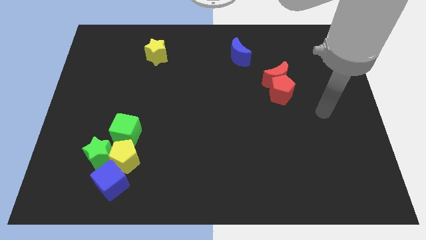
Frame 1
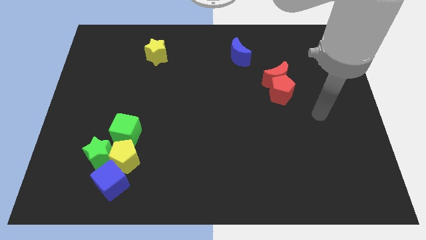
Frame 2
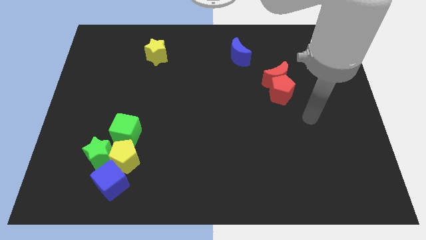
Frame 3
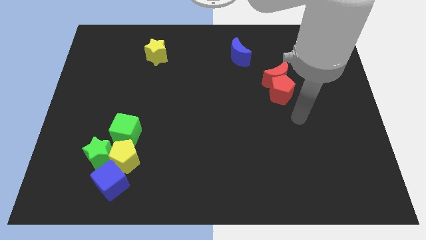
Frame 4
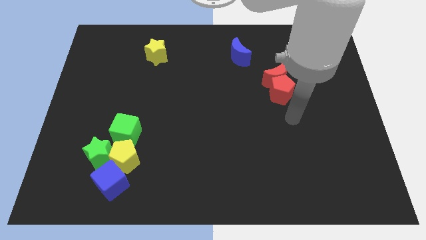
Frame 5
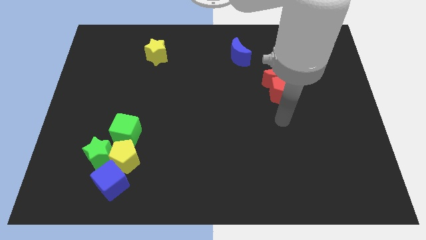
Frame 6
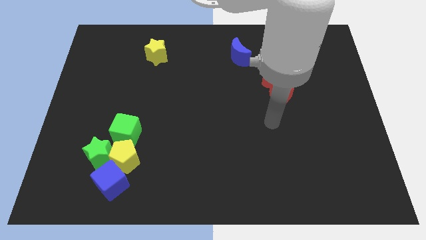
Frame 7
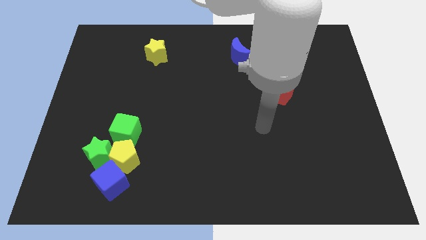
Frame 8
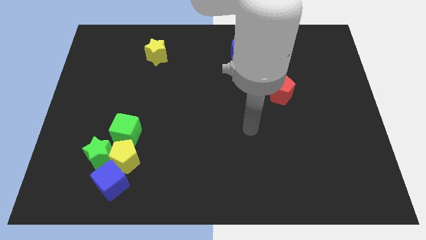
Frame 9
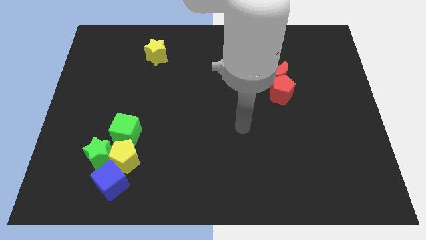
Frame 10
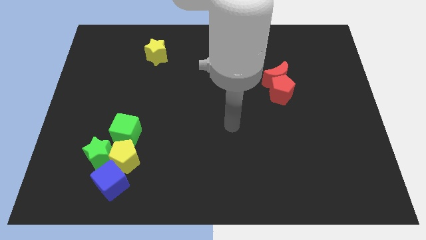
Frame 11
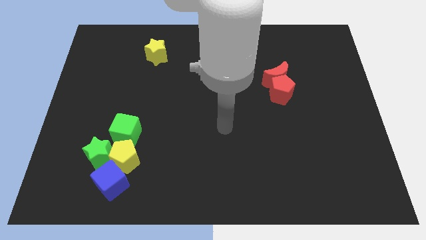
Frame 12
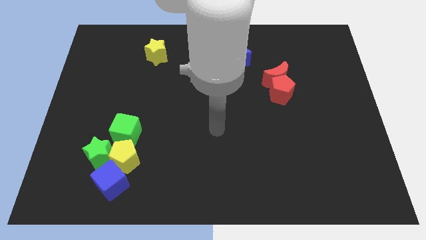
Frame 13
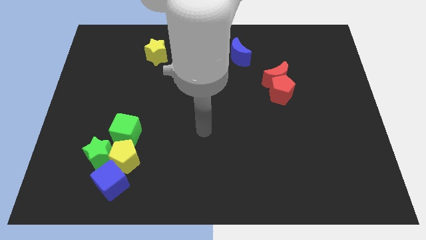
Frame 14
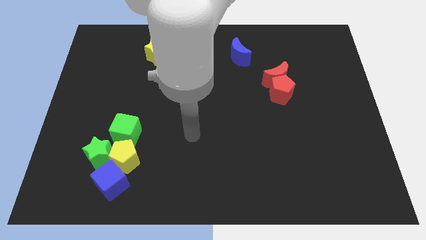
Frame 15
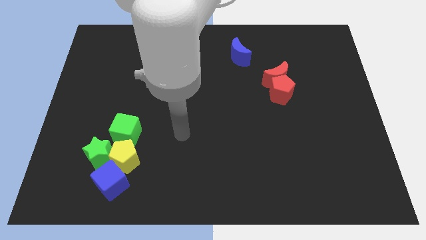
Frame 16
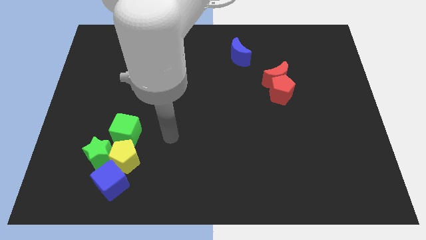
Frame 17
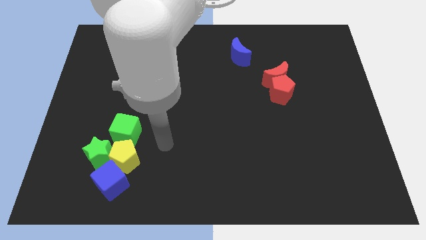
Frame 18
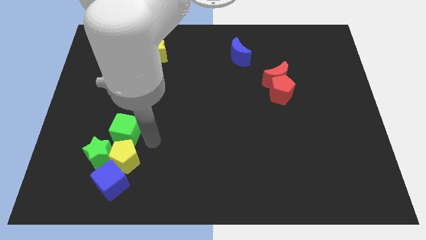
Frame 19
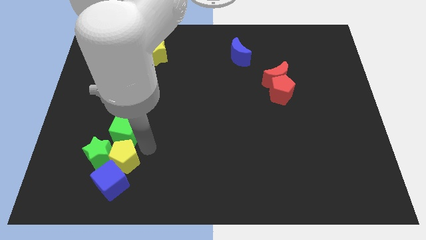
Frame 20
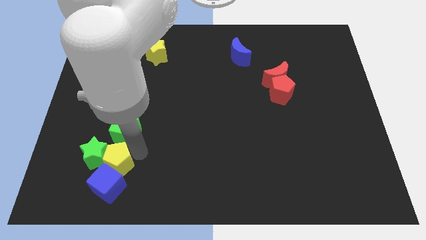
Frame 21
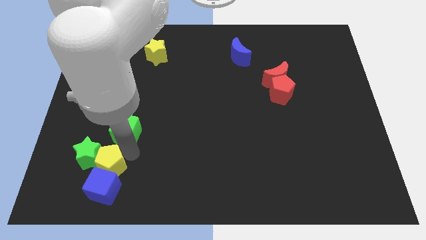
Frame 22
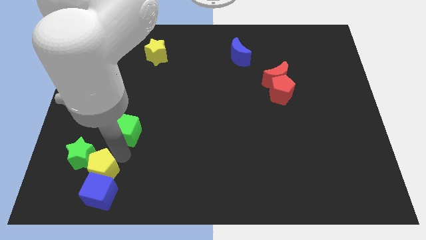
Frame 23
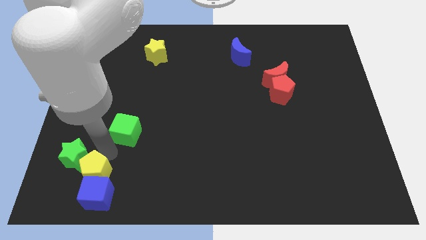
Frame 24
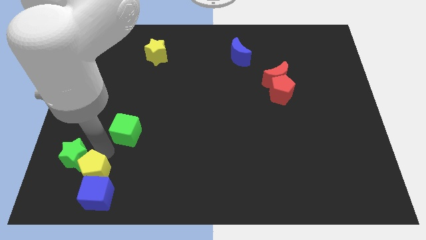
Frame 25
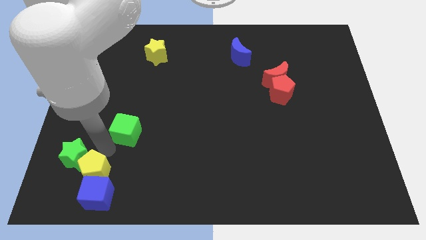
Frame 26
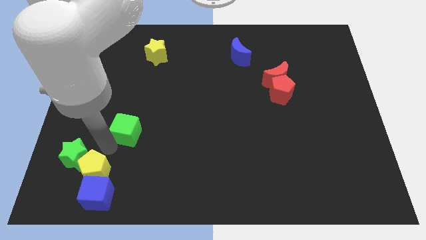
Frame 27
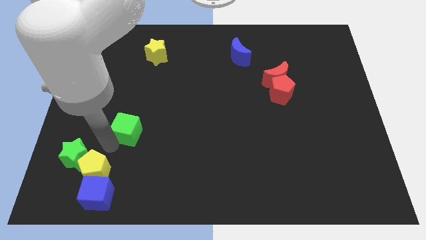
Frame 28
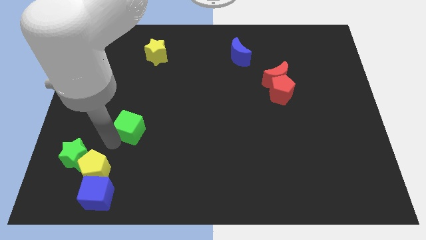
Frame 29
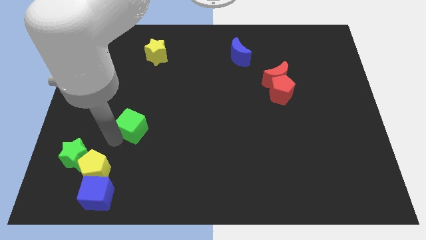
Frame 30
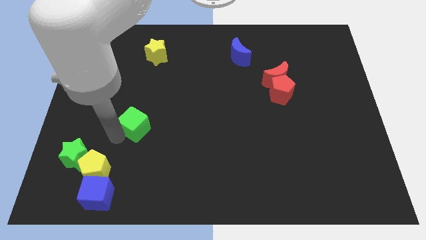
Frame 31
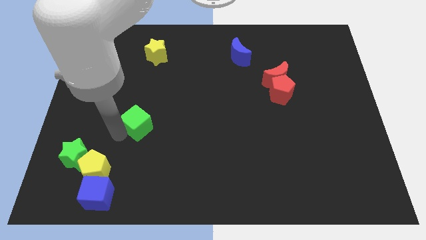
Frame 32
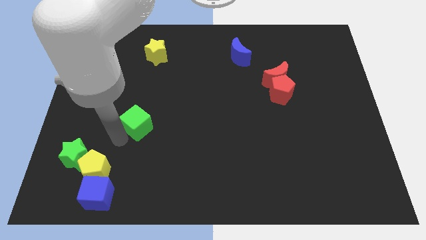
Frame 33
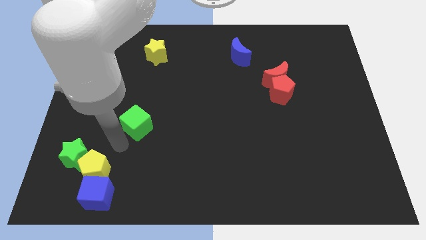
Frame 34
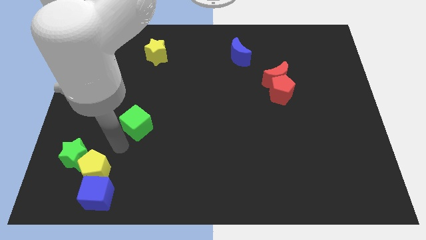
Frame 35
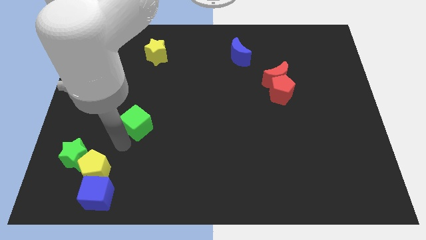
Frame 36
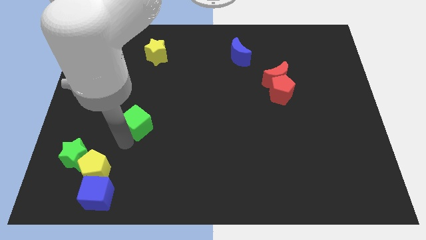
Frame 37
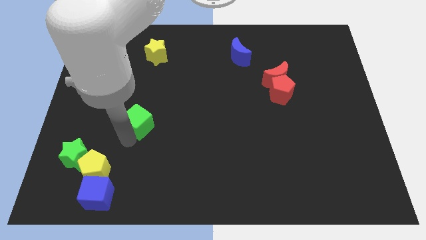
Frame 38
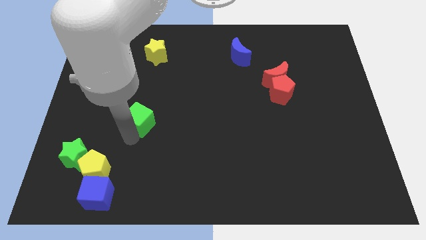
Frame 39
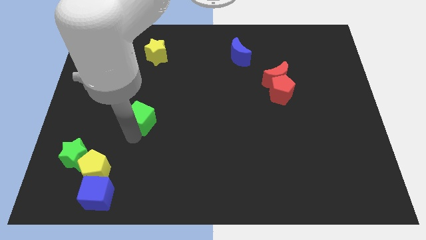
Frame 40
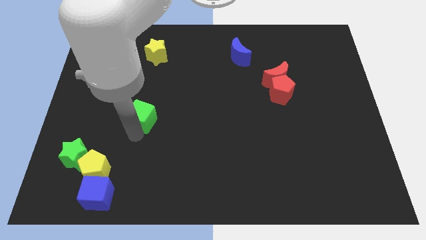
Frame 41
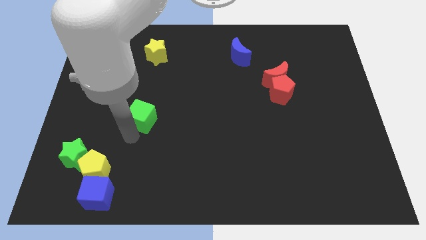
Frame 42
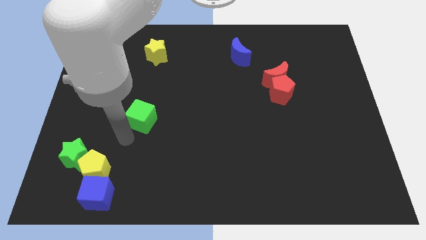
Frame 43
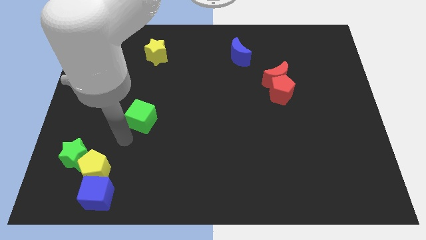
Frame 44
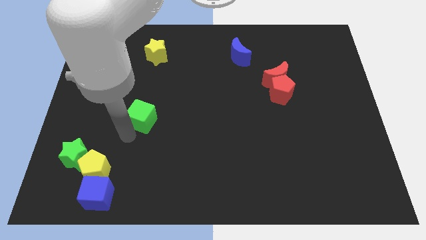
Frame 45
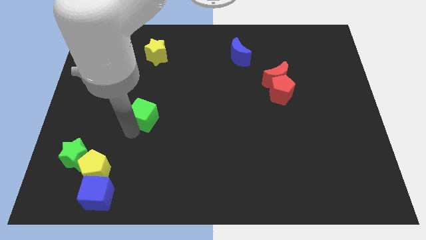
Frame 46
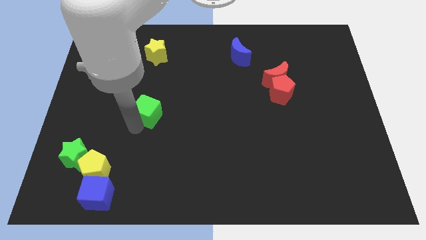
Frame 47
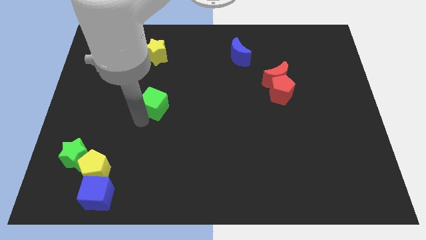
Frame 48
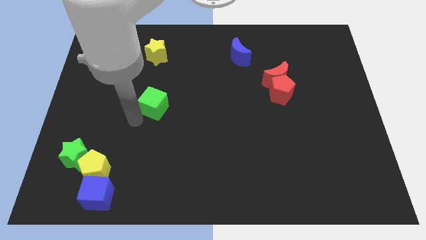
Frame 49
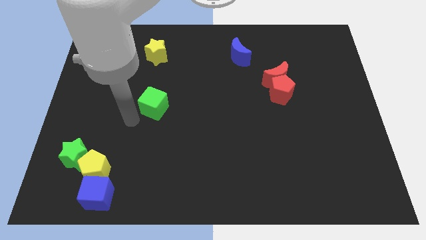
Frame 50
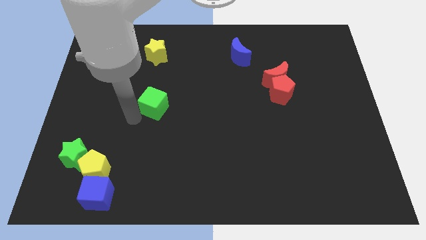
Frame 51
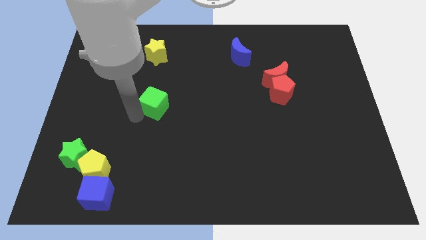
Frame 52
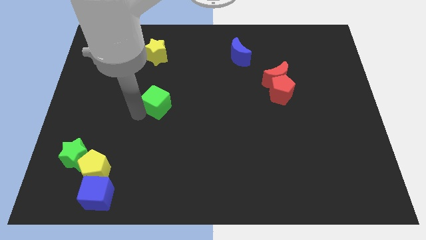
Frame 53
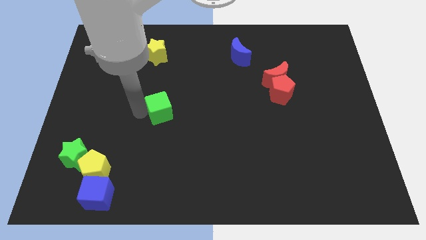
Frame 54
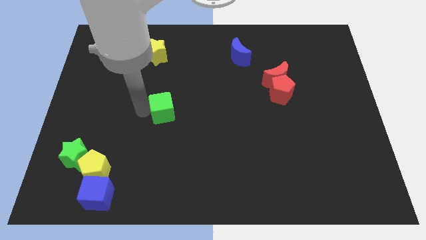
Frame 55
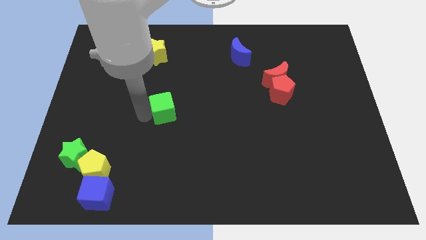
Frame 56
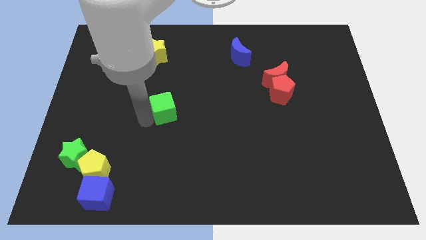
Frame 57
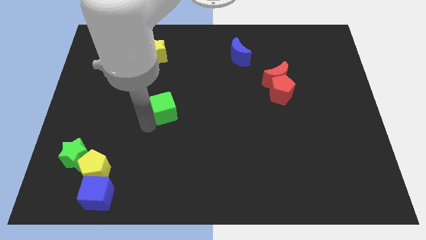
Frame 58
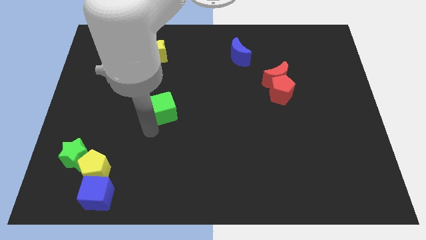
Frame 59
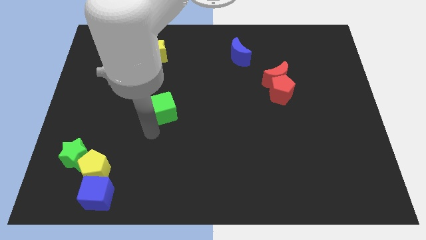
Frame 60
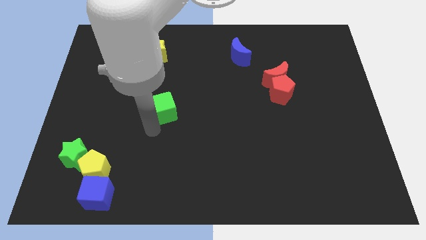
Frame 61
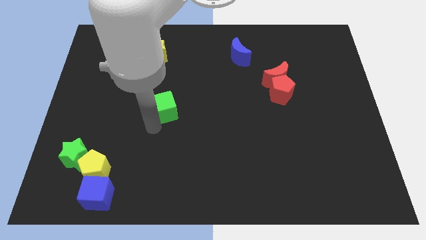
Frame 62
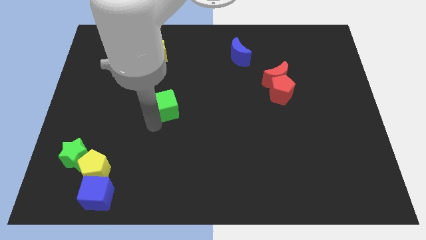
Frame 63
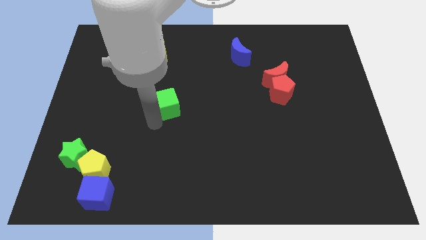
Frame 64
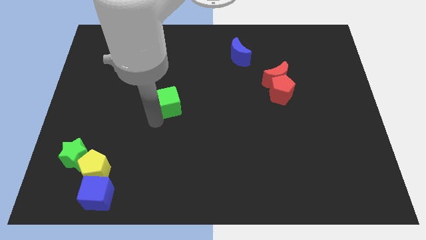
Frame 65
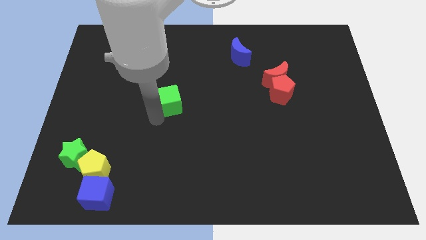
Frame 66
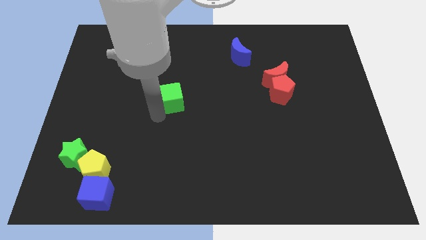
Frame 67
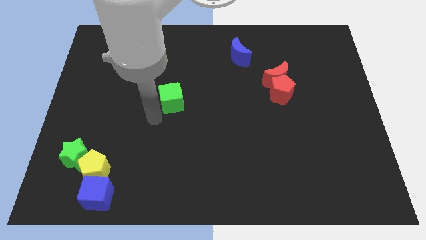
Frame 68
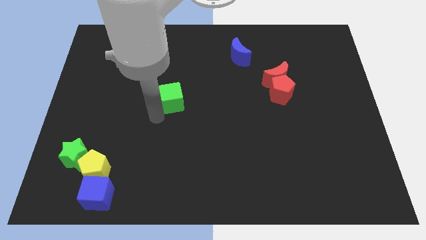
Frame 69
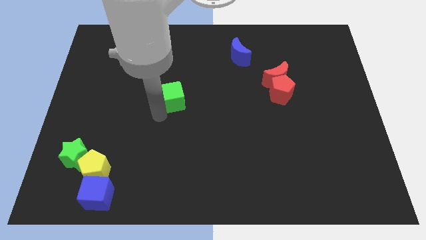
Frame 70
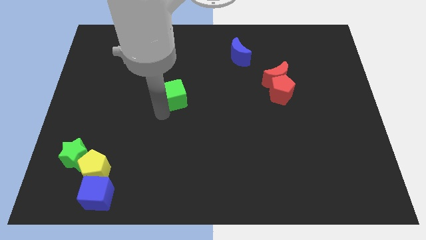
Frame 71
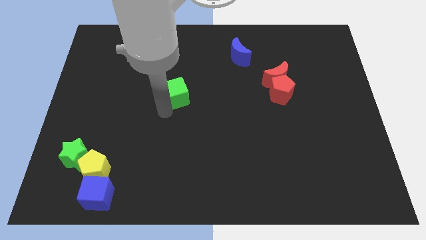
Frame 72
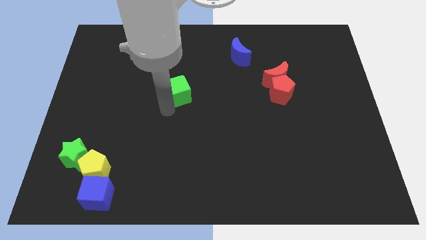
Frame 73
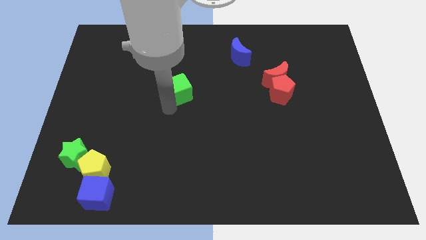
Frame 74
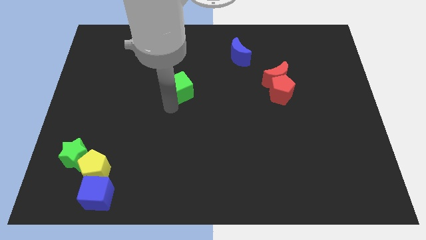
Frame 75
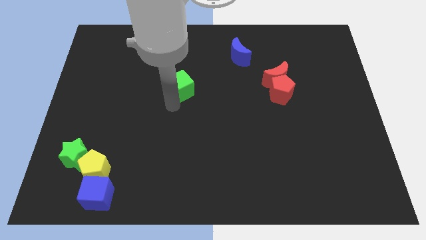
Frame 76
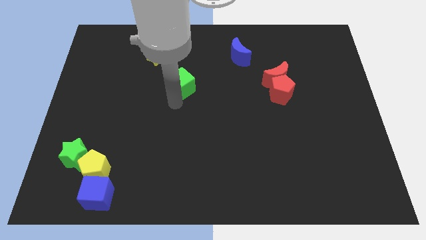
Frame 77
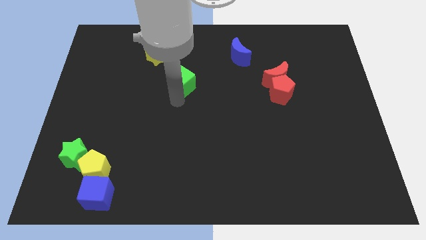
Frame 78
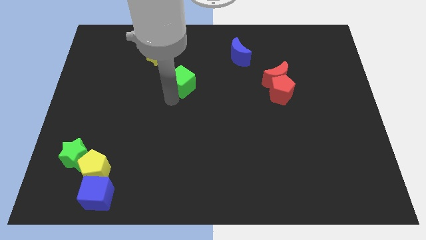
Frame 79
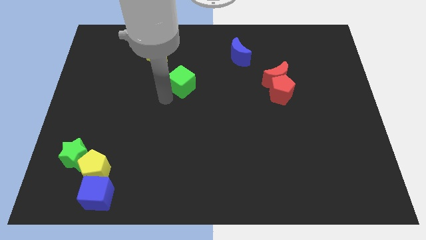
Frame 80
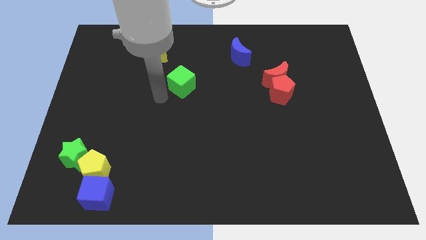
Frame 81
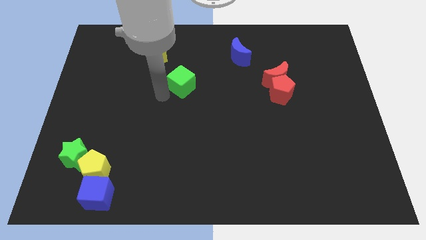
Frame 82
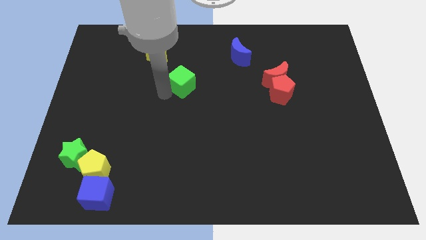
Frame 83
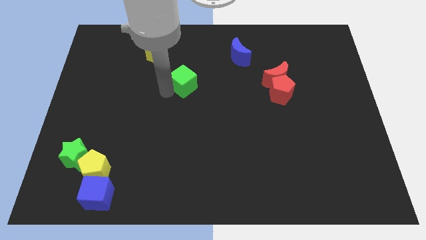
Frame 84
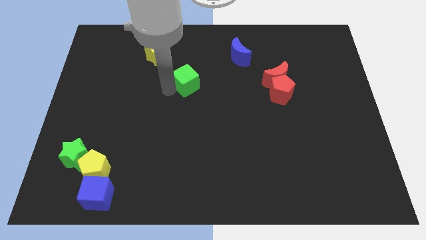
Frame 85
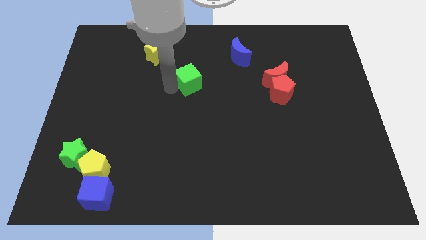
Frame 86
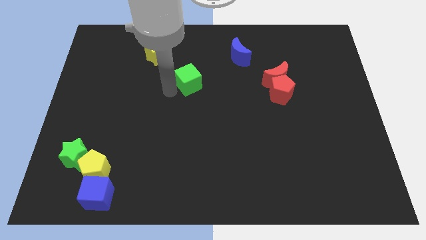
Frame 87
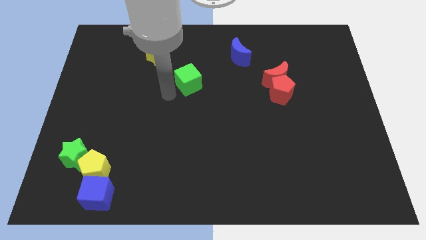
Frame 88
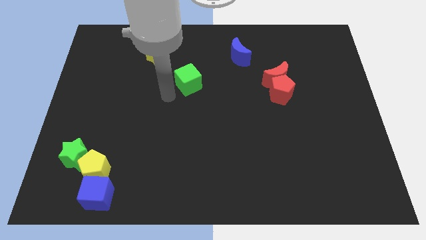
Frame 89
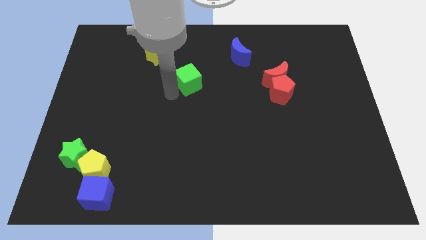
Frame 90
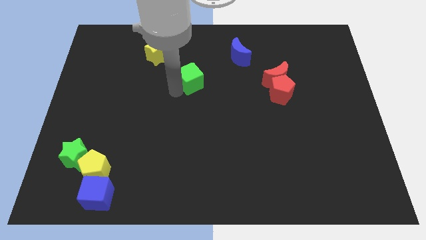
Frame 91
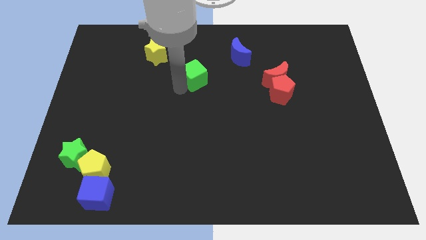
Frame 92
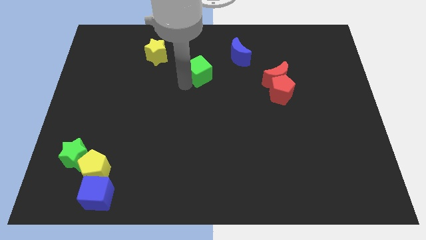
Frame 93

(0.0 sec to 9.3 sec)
slide the green cube diagonally down and to the left of the blue moon
